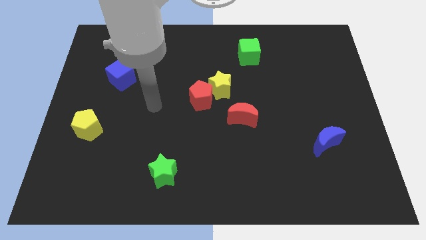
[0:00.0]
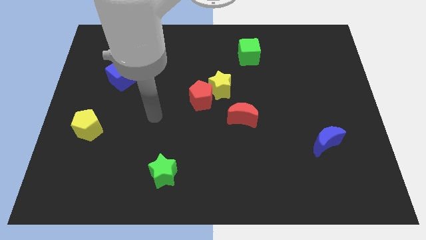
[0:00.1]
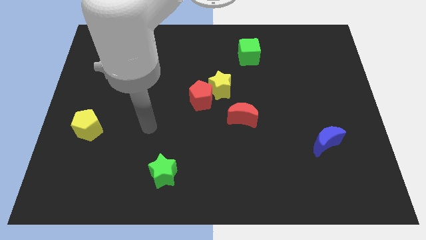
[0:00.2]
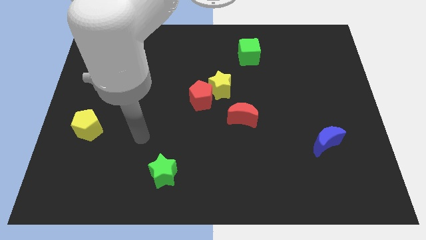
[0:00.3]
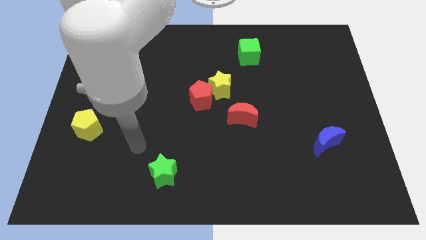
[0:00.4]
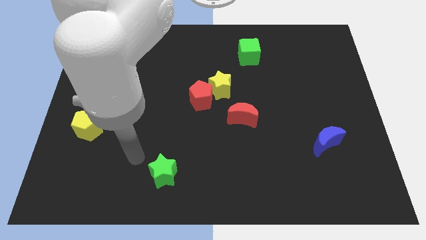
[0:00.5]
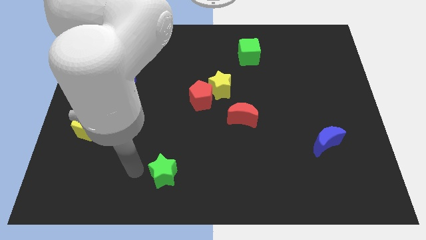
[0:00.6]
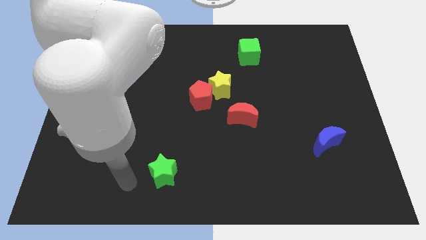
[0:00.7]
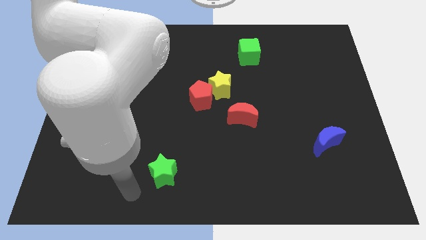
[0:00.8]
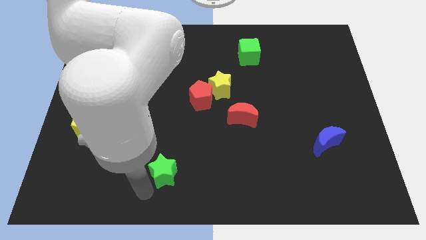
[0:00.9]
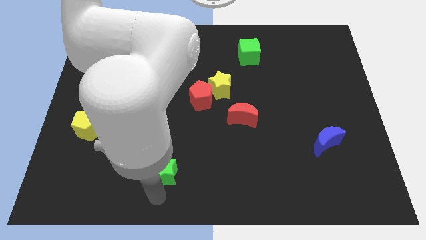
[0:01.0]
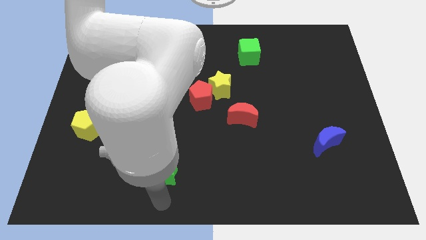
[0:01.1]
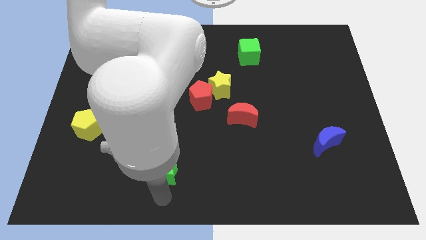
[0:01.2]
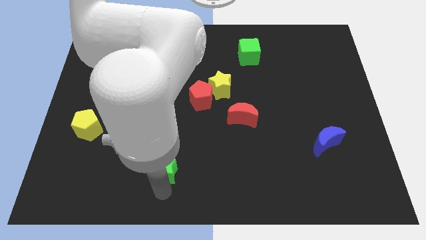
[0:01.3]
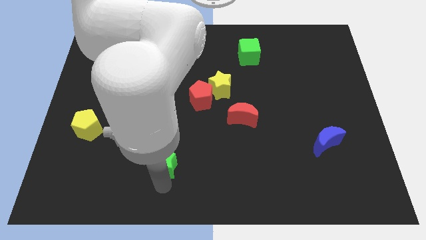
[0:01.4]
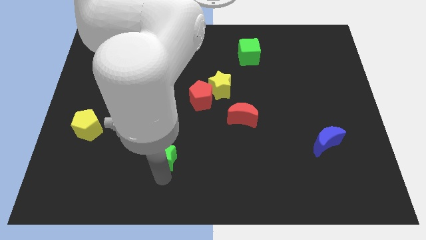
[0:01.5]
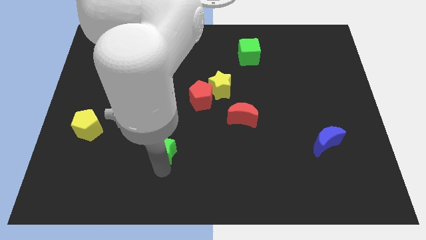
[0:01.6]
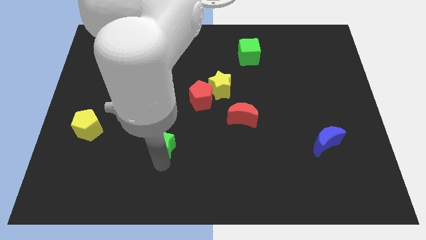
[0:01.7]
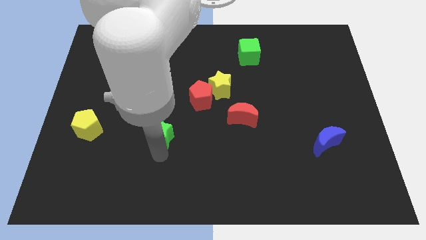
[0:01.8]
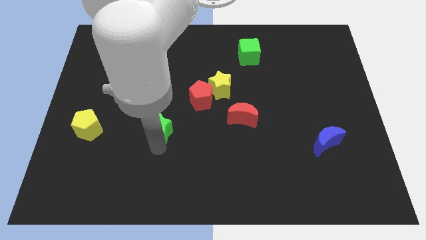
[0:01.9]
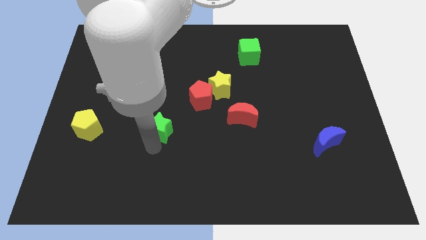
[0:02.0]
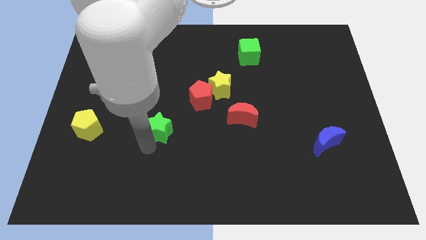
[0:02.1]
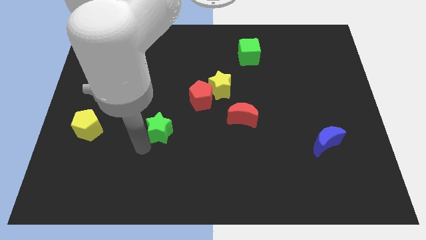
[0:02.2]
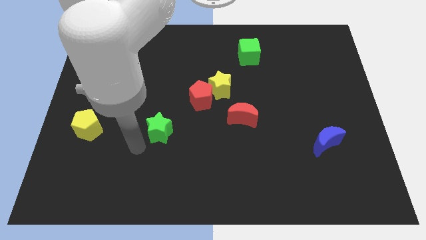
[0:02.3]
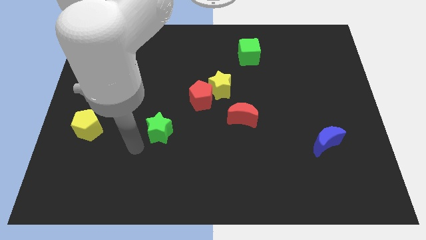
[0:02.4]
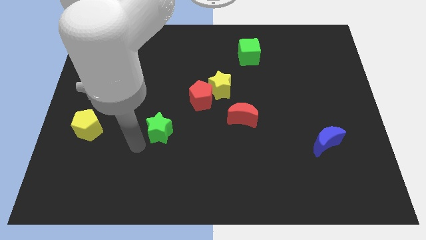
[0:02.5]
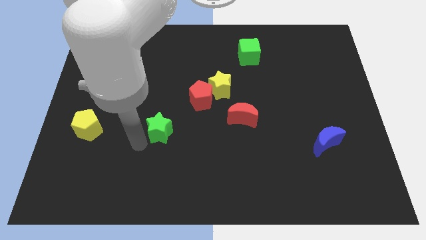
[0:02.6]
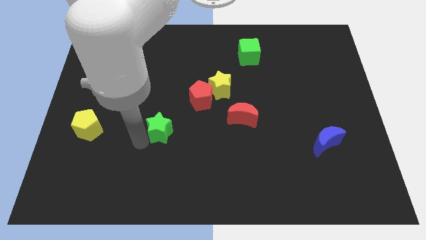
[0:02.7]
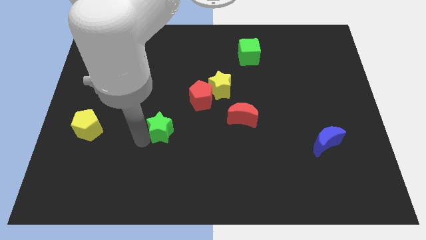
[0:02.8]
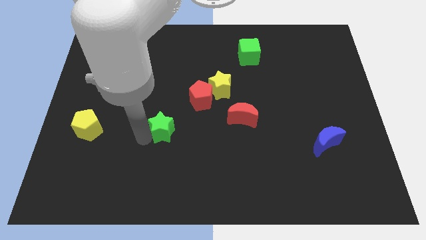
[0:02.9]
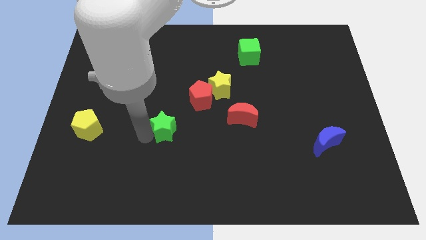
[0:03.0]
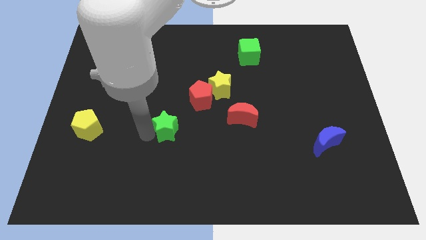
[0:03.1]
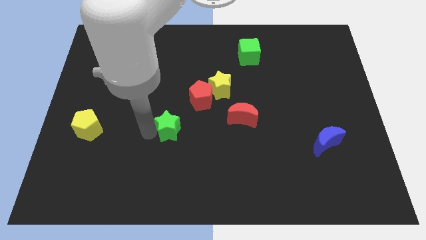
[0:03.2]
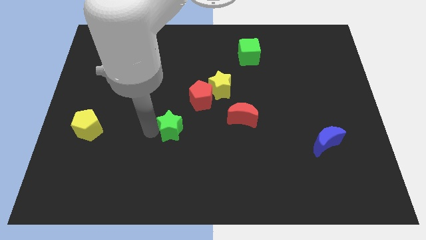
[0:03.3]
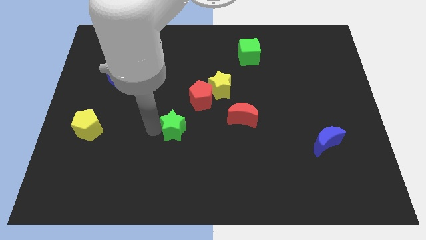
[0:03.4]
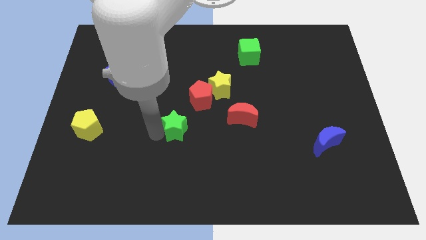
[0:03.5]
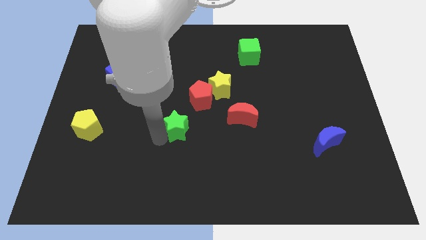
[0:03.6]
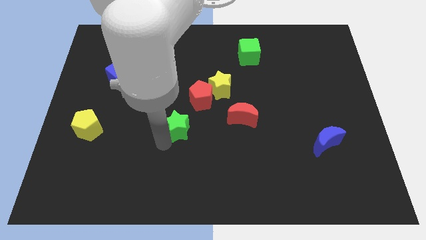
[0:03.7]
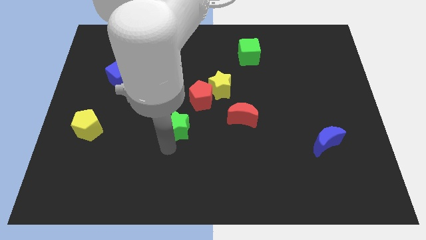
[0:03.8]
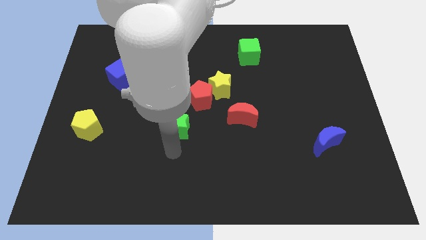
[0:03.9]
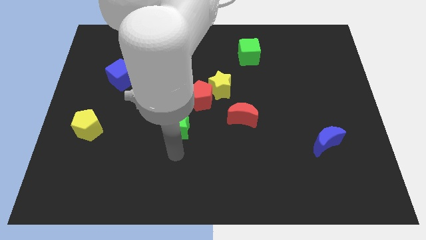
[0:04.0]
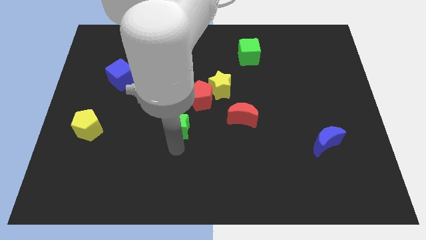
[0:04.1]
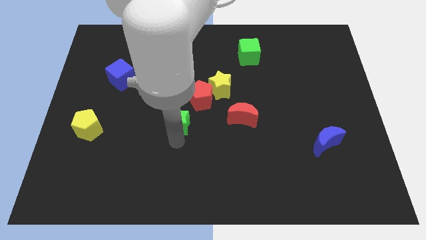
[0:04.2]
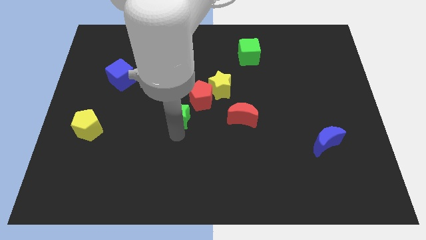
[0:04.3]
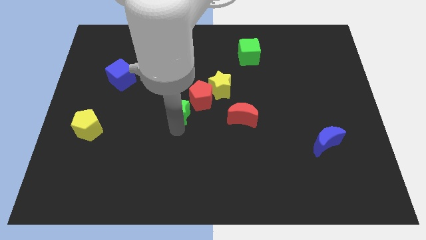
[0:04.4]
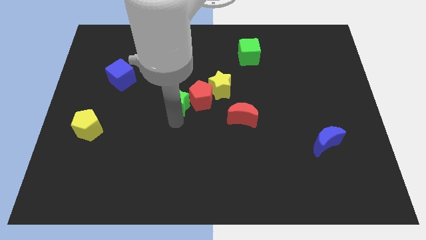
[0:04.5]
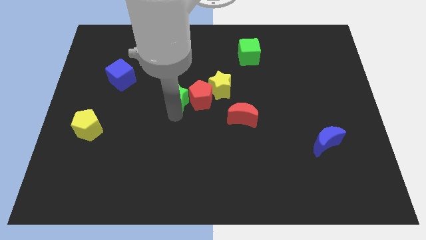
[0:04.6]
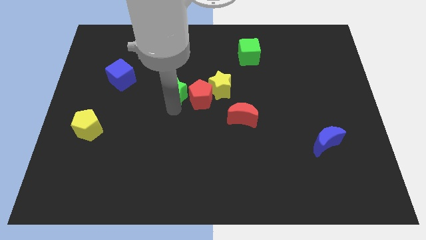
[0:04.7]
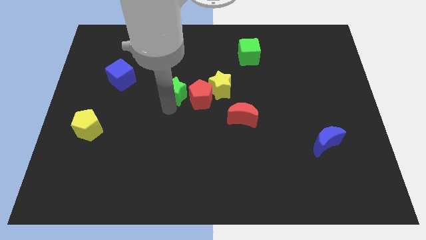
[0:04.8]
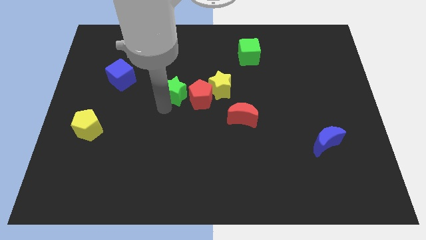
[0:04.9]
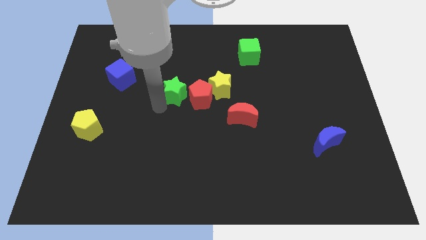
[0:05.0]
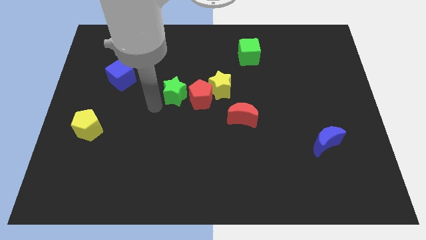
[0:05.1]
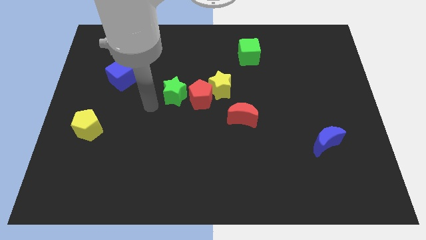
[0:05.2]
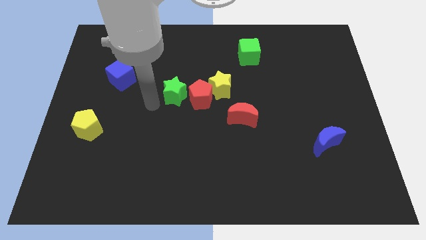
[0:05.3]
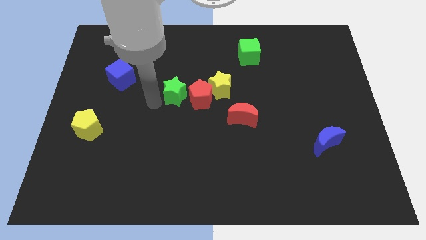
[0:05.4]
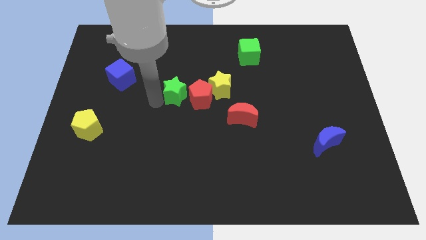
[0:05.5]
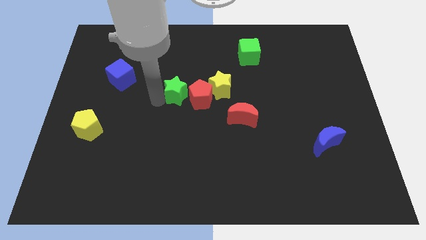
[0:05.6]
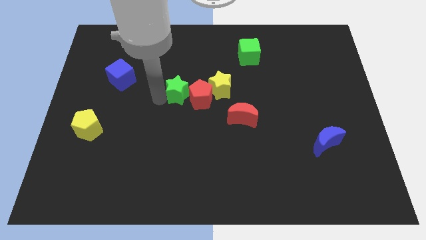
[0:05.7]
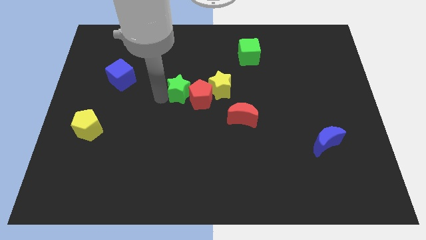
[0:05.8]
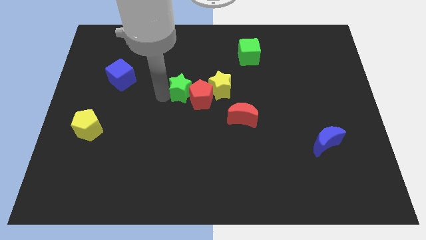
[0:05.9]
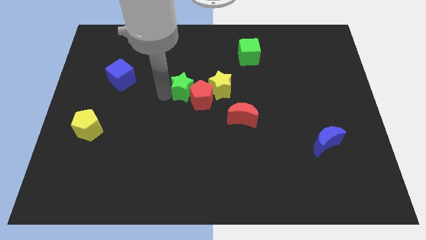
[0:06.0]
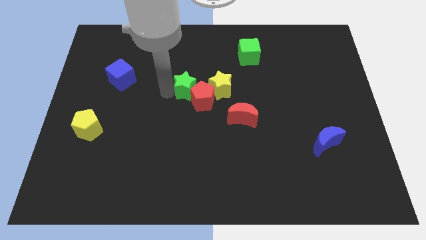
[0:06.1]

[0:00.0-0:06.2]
slide the green star to the top side of the red pentagon
